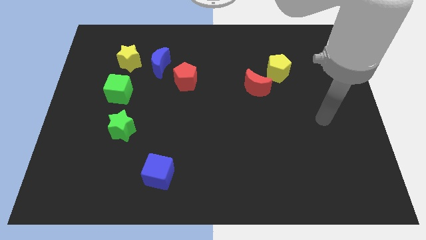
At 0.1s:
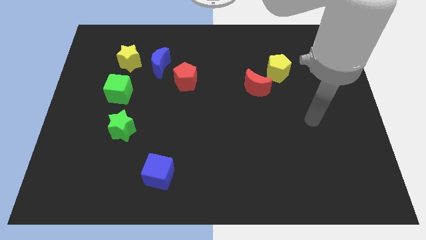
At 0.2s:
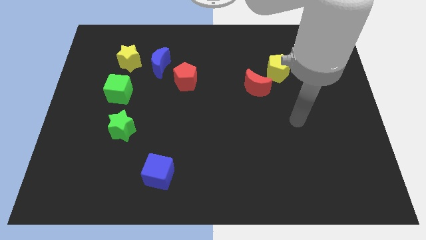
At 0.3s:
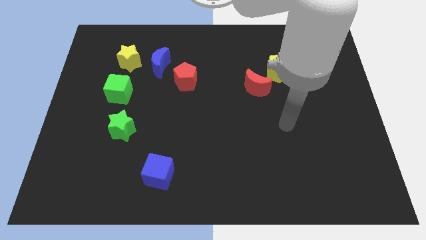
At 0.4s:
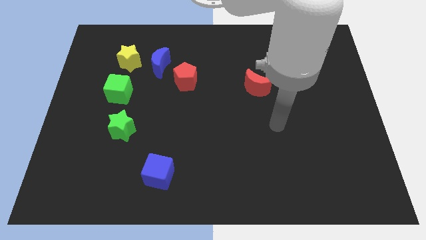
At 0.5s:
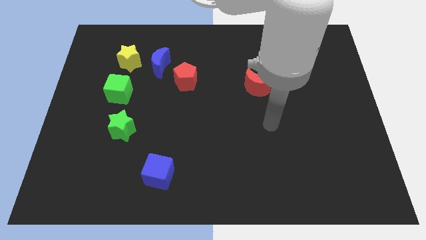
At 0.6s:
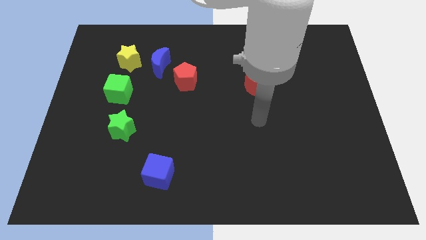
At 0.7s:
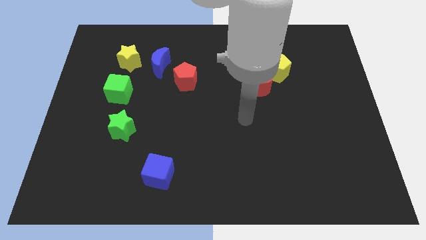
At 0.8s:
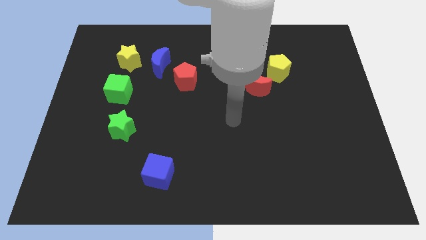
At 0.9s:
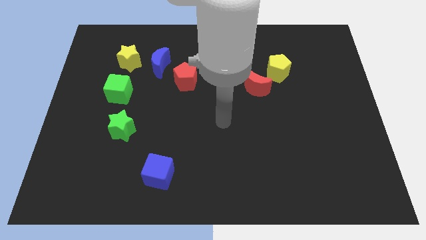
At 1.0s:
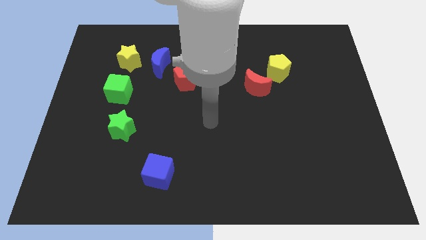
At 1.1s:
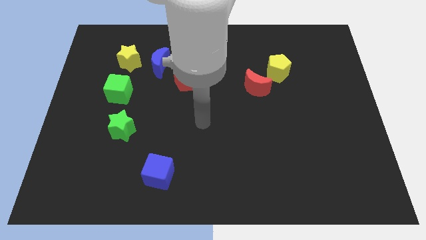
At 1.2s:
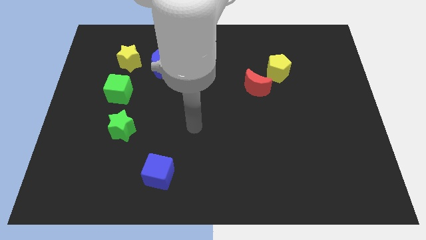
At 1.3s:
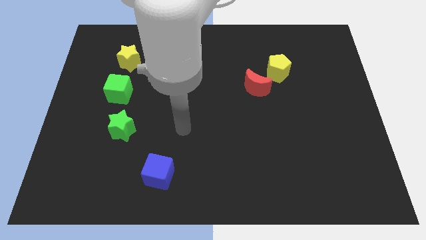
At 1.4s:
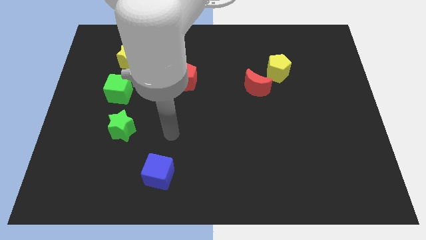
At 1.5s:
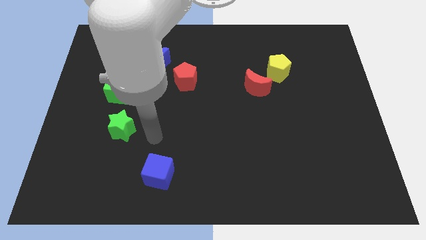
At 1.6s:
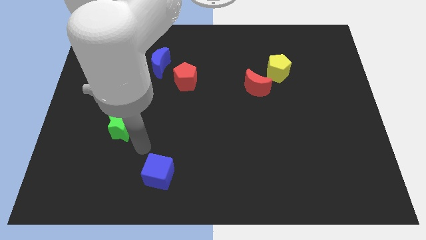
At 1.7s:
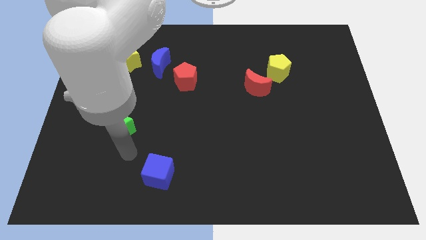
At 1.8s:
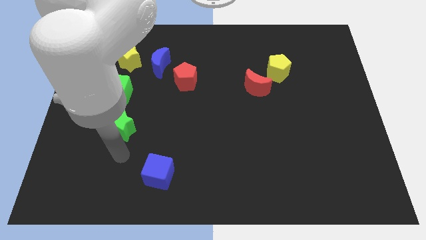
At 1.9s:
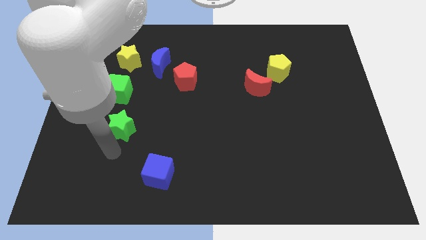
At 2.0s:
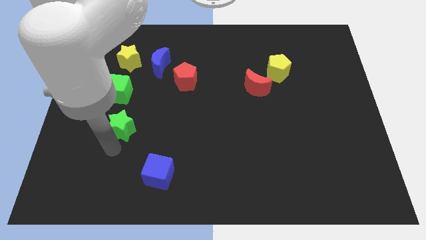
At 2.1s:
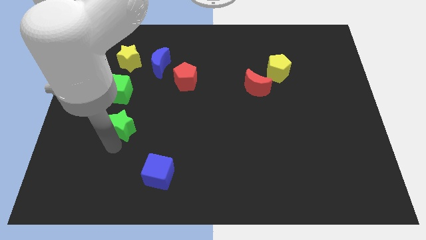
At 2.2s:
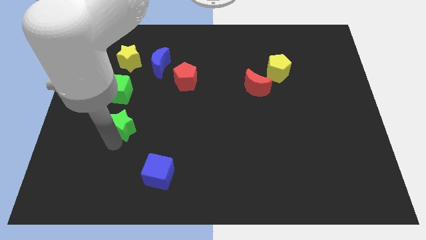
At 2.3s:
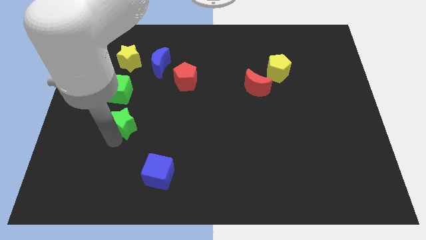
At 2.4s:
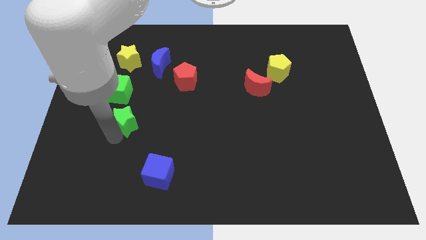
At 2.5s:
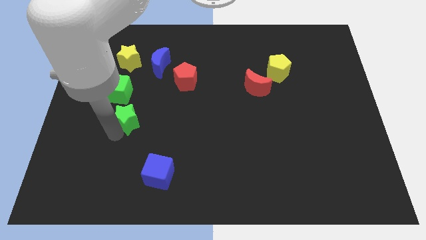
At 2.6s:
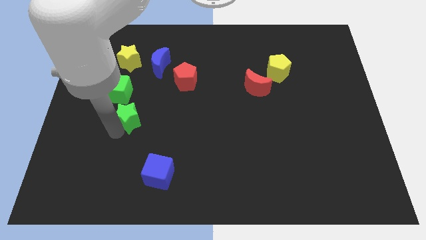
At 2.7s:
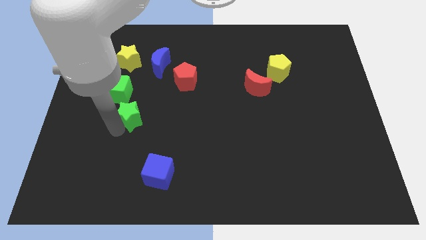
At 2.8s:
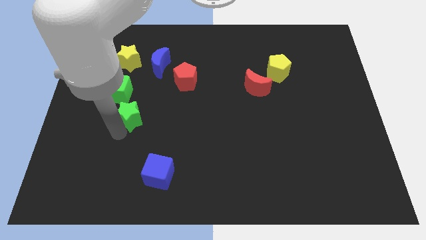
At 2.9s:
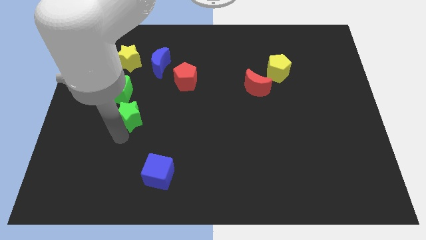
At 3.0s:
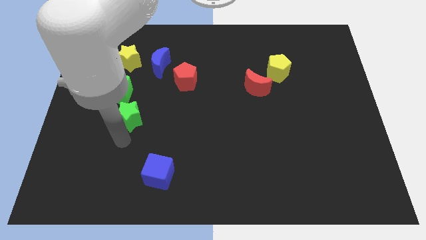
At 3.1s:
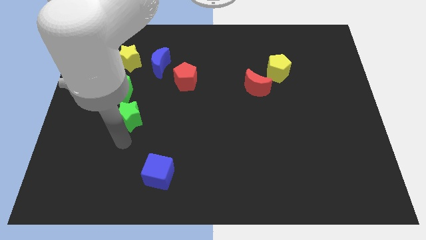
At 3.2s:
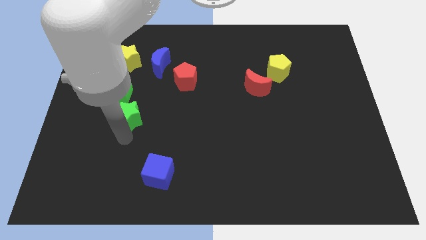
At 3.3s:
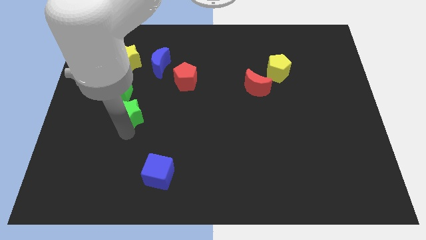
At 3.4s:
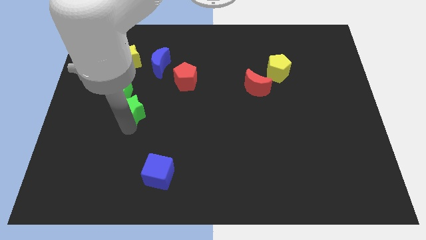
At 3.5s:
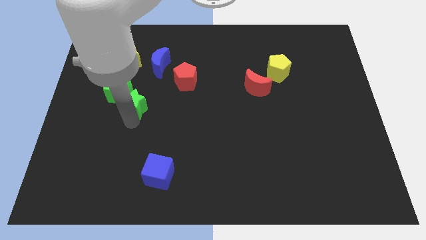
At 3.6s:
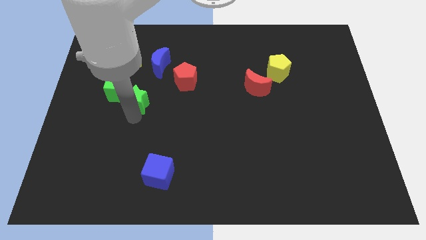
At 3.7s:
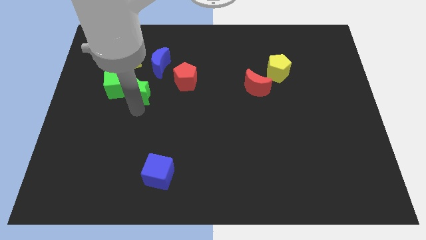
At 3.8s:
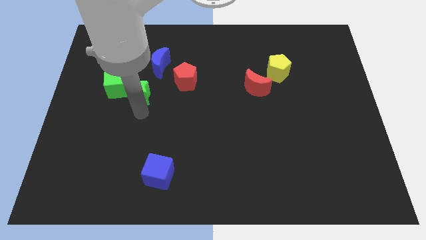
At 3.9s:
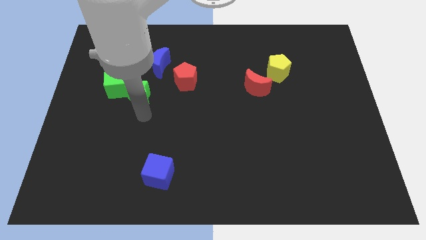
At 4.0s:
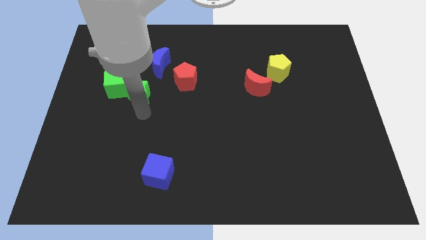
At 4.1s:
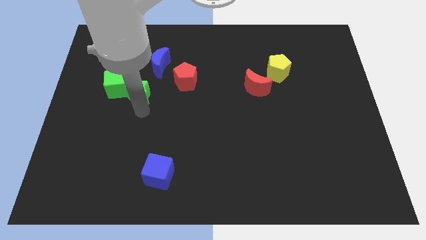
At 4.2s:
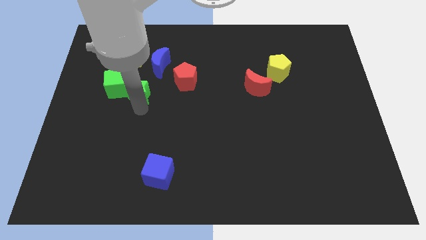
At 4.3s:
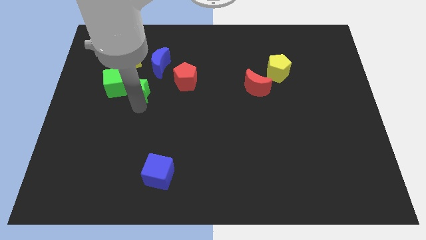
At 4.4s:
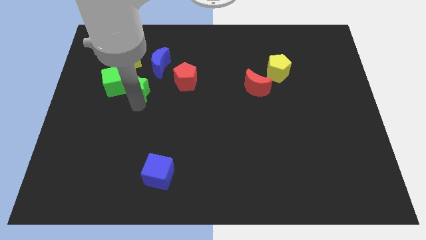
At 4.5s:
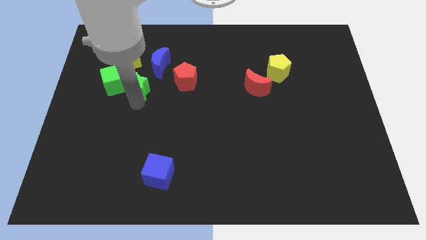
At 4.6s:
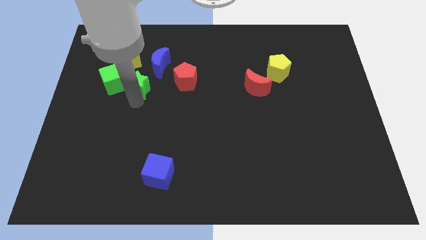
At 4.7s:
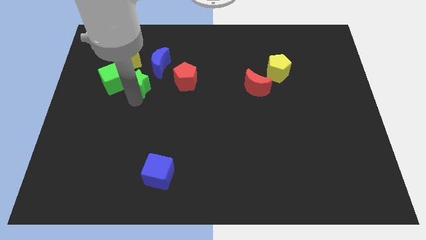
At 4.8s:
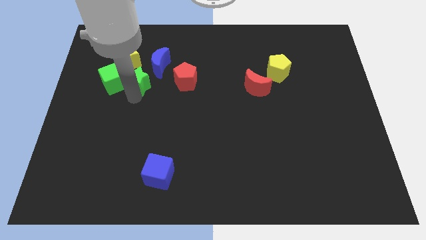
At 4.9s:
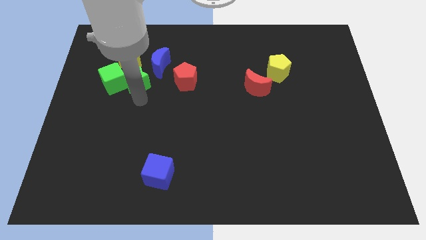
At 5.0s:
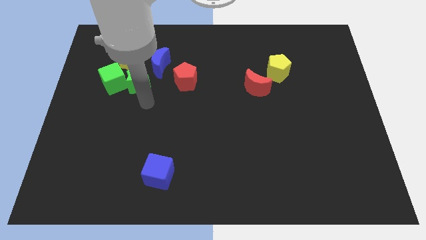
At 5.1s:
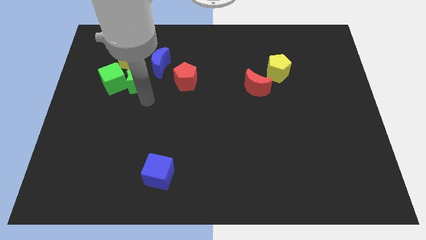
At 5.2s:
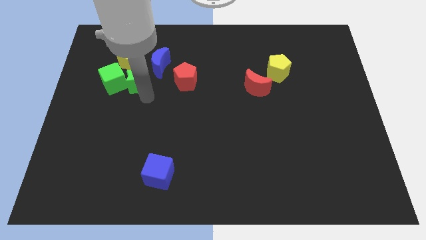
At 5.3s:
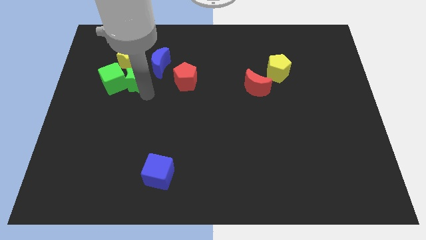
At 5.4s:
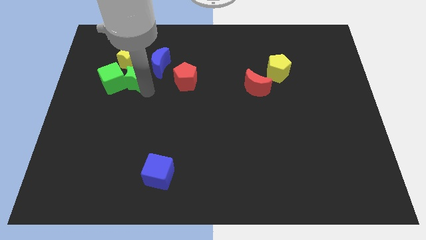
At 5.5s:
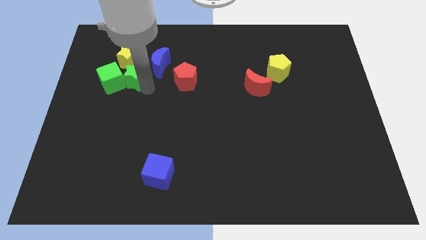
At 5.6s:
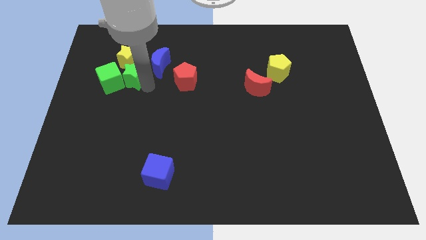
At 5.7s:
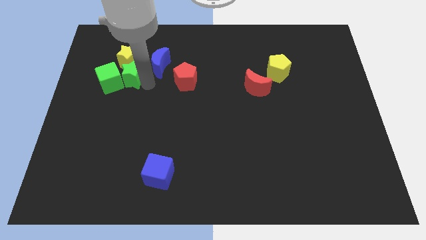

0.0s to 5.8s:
move the green star to the yellow star
